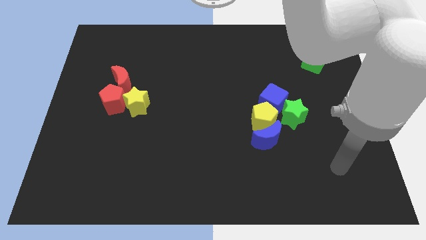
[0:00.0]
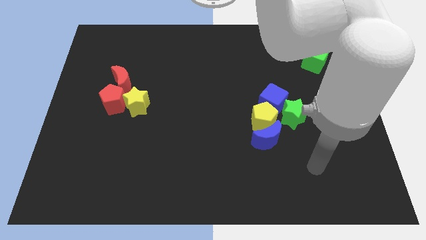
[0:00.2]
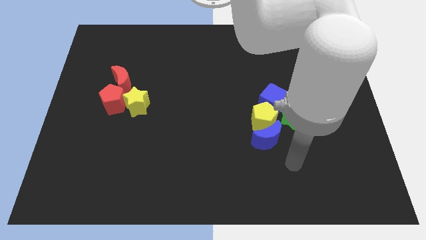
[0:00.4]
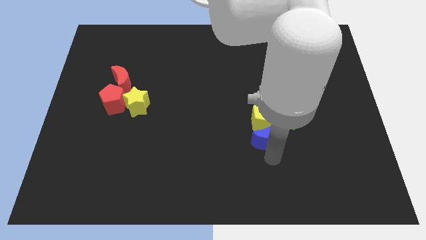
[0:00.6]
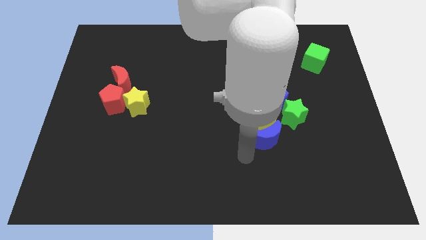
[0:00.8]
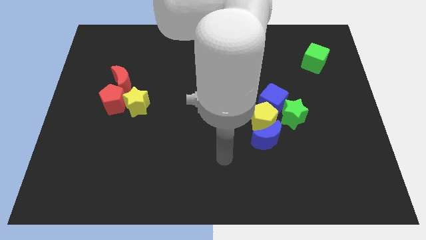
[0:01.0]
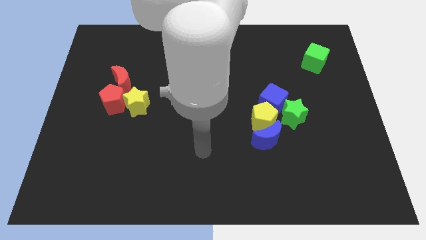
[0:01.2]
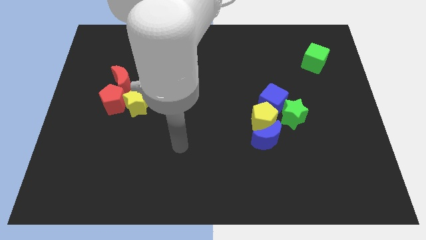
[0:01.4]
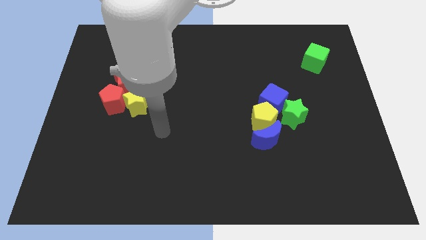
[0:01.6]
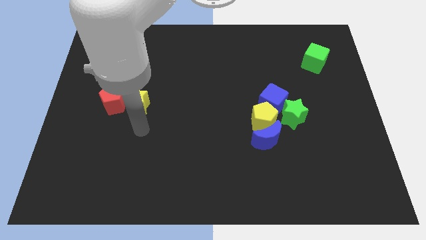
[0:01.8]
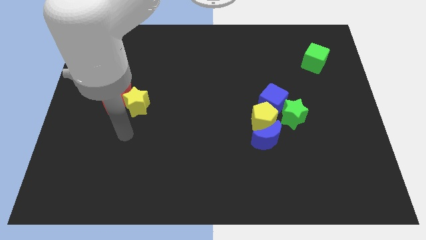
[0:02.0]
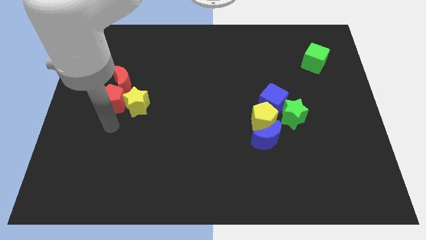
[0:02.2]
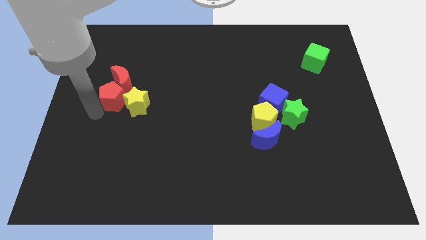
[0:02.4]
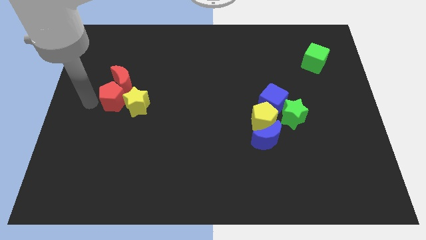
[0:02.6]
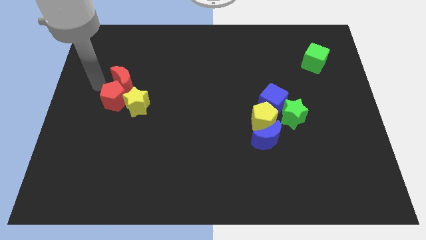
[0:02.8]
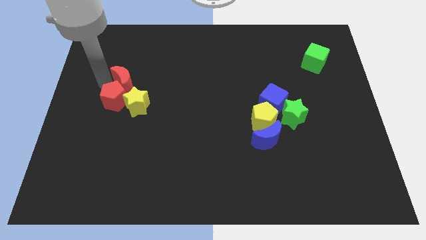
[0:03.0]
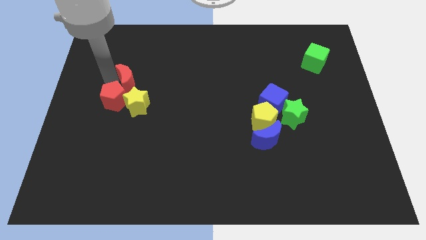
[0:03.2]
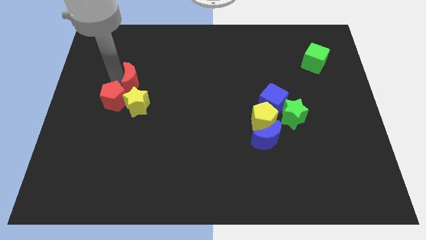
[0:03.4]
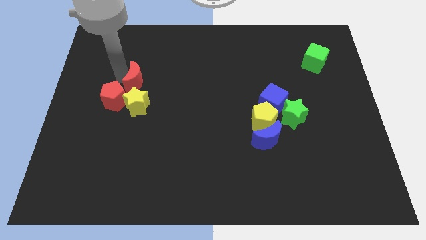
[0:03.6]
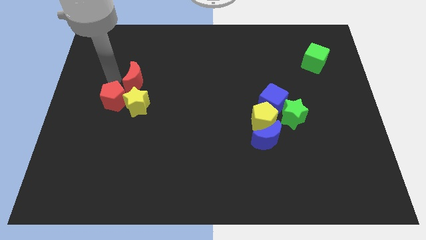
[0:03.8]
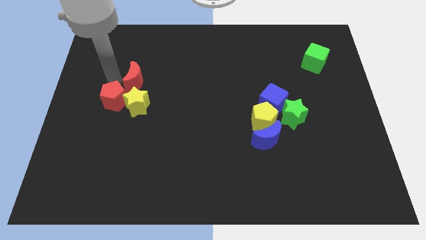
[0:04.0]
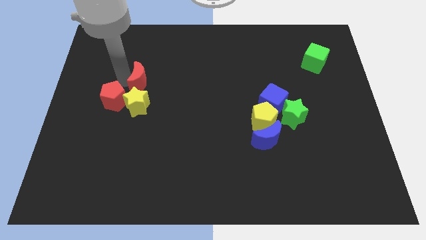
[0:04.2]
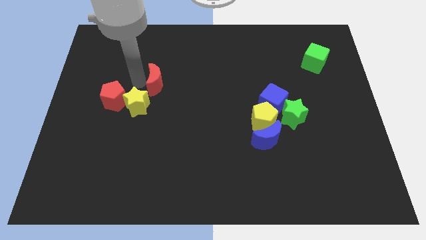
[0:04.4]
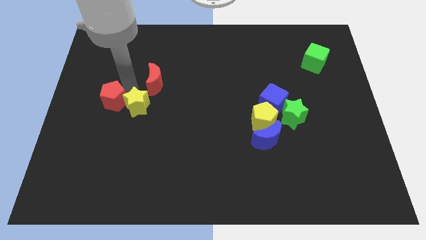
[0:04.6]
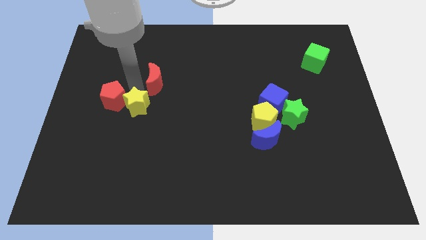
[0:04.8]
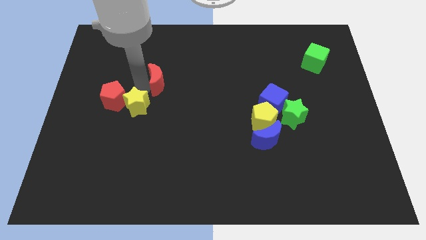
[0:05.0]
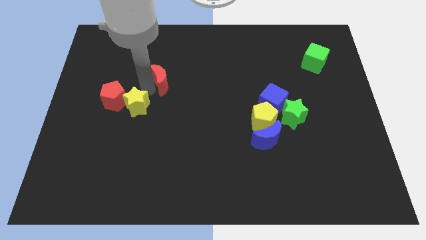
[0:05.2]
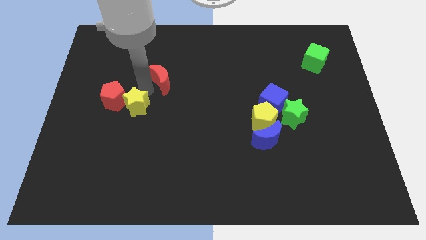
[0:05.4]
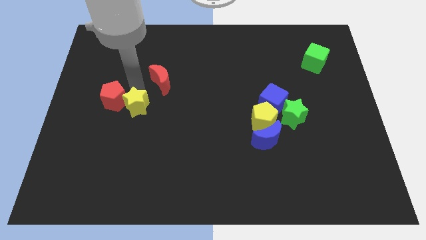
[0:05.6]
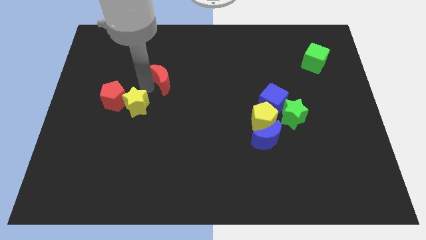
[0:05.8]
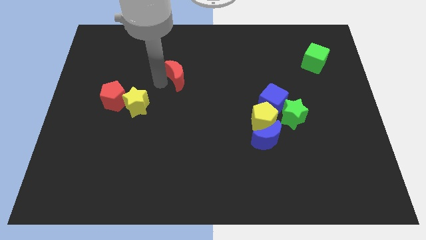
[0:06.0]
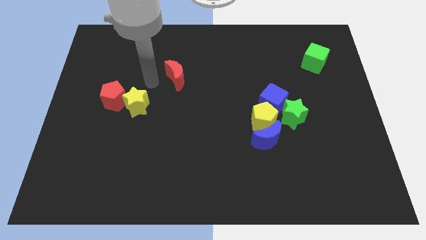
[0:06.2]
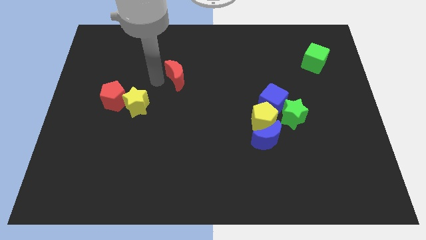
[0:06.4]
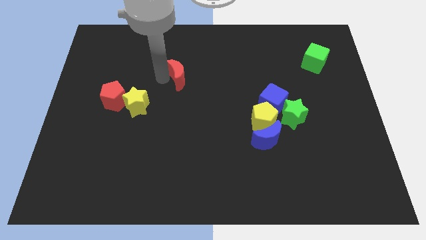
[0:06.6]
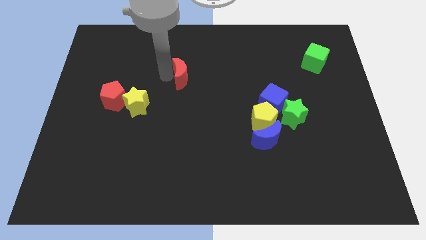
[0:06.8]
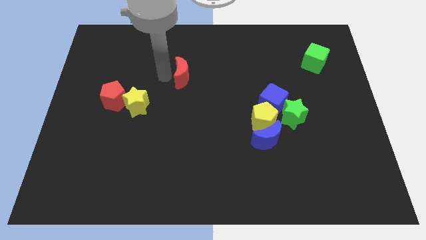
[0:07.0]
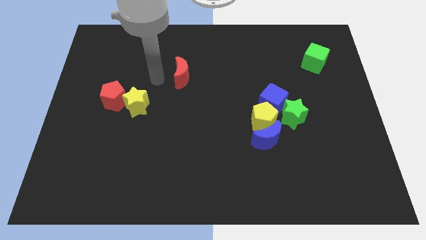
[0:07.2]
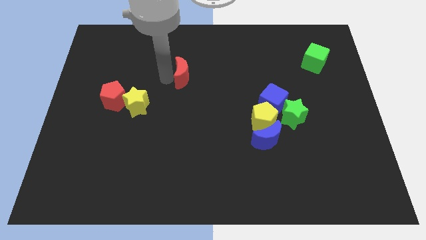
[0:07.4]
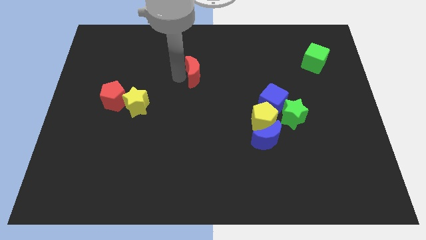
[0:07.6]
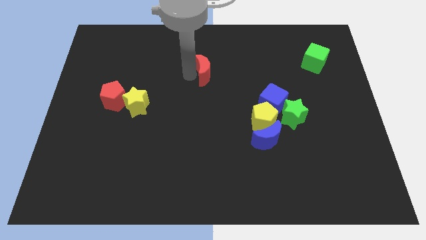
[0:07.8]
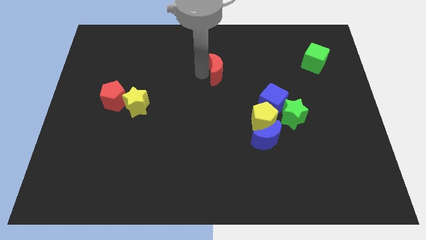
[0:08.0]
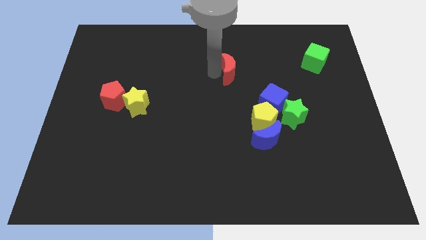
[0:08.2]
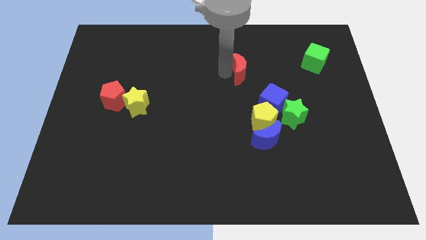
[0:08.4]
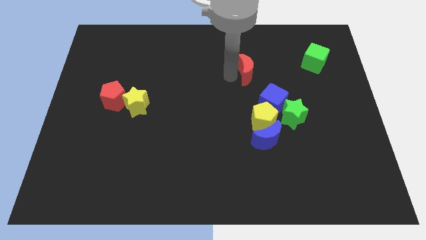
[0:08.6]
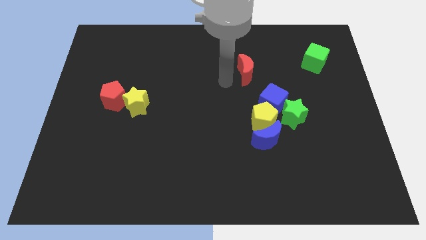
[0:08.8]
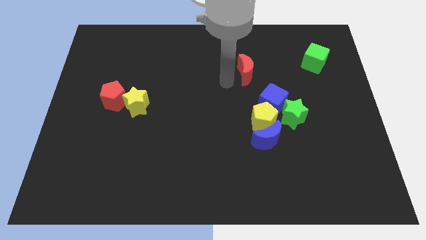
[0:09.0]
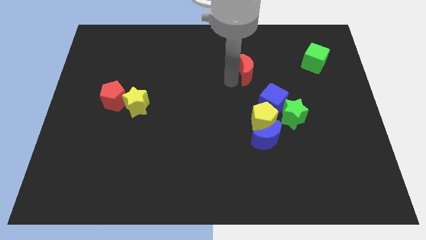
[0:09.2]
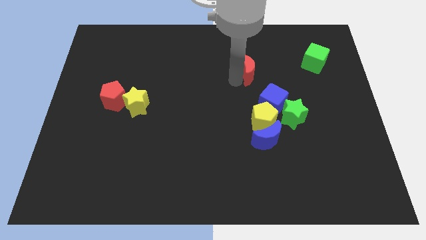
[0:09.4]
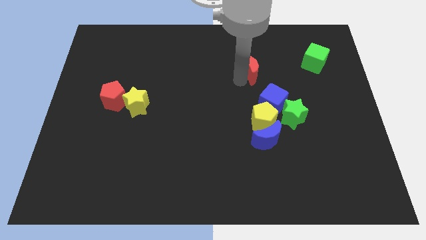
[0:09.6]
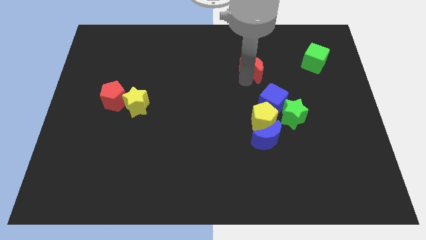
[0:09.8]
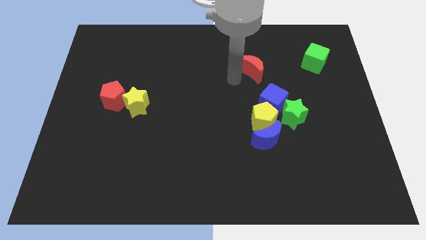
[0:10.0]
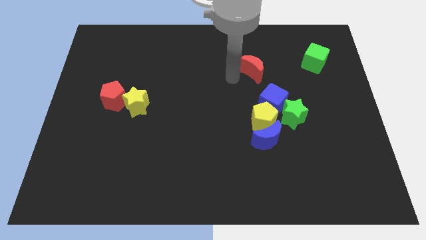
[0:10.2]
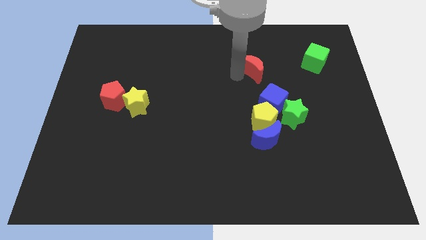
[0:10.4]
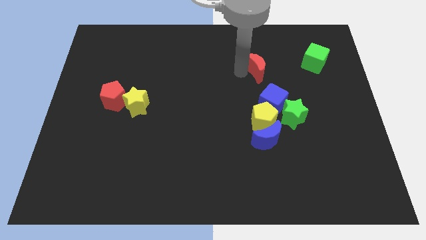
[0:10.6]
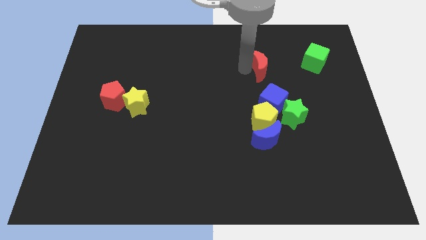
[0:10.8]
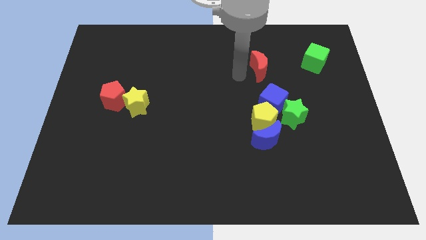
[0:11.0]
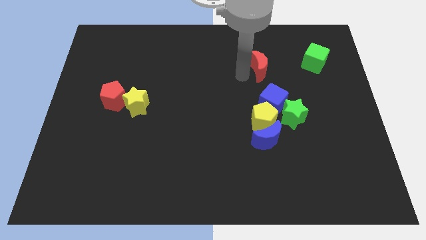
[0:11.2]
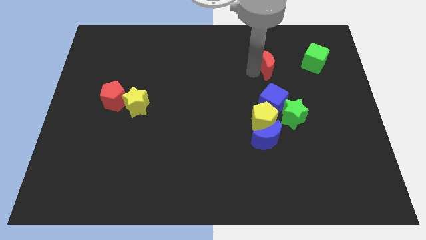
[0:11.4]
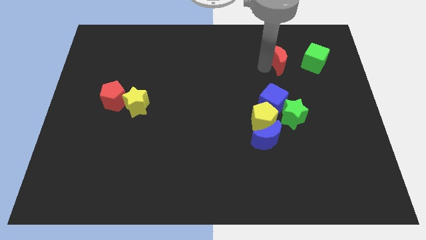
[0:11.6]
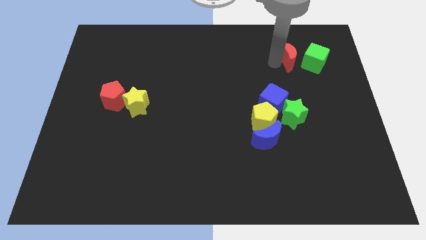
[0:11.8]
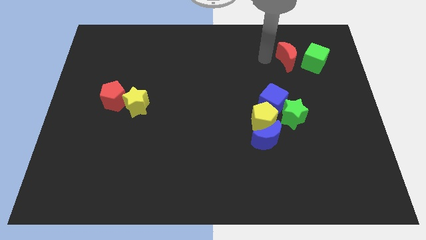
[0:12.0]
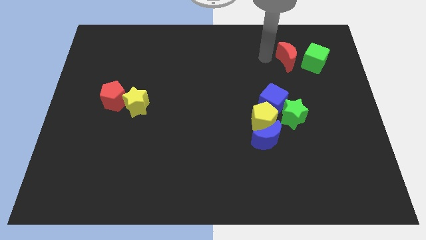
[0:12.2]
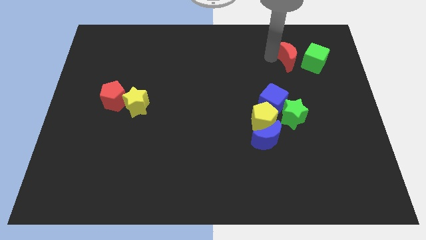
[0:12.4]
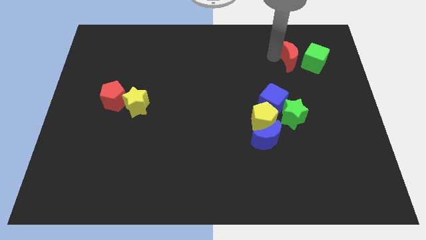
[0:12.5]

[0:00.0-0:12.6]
put the red moon towards the green cube

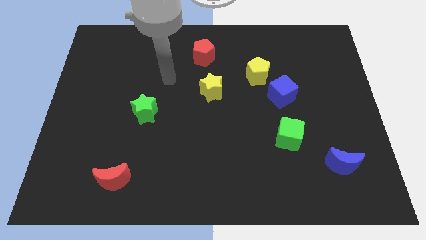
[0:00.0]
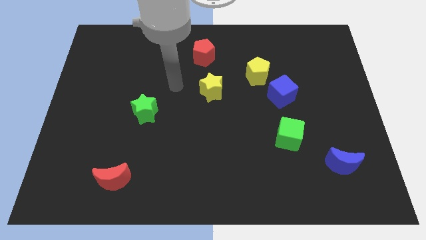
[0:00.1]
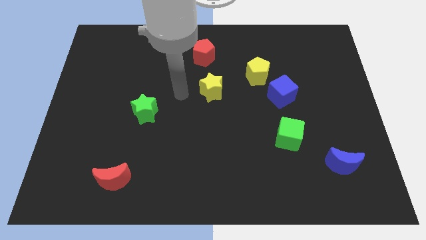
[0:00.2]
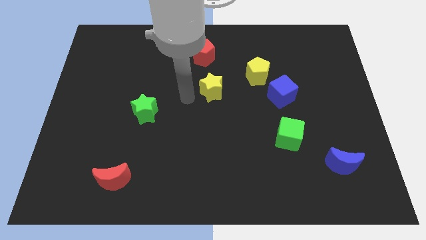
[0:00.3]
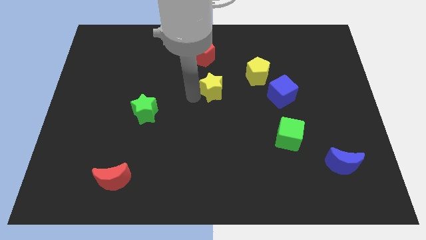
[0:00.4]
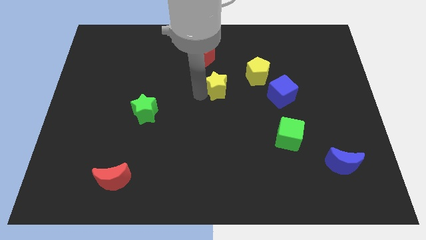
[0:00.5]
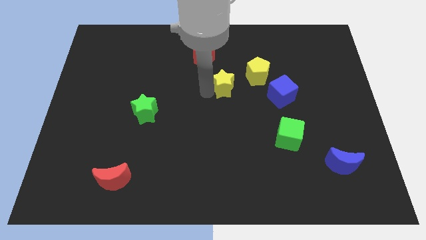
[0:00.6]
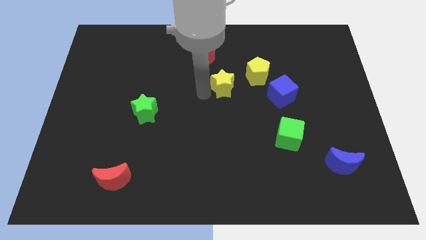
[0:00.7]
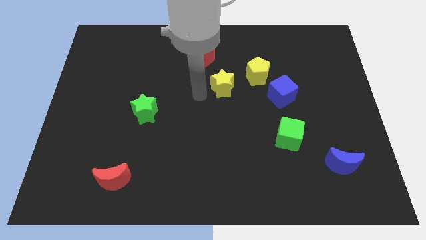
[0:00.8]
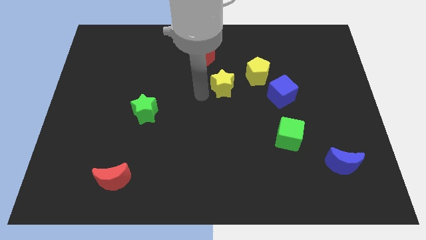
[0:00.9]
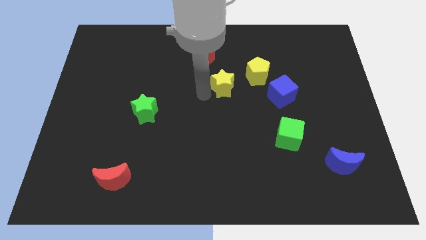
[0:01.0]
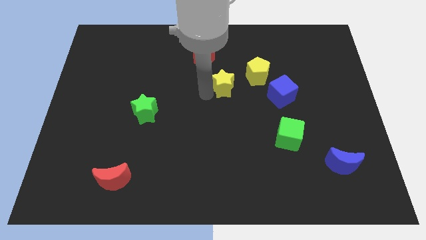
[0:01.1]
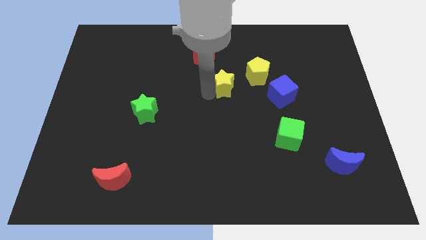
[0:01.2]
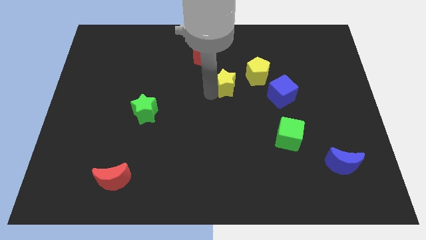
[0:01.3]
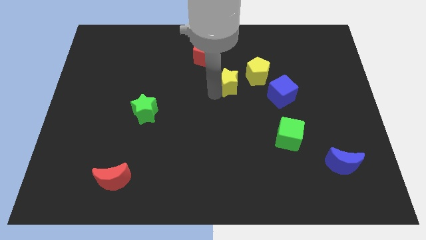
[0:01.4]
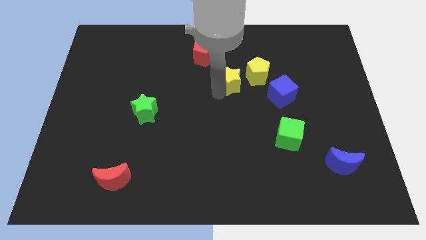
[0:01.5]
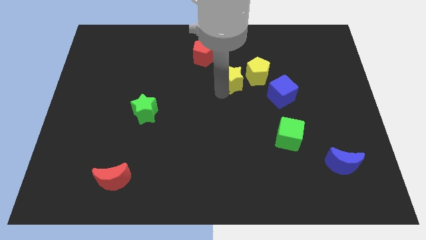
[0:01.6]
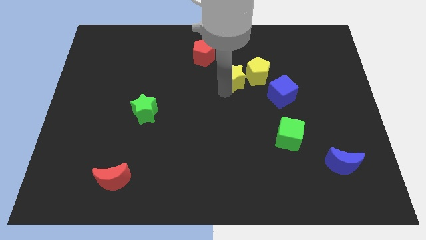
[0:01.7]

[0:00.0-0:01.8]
slide the yellow star close to the yellow pentagon
